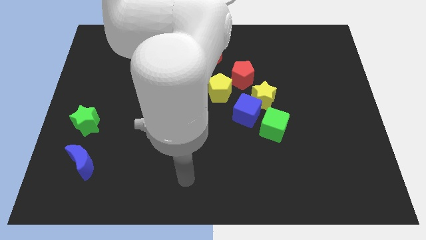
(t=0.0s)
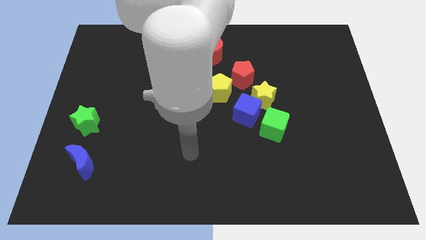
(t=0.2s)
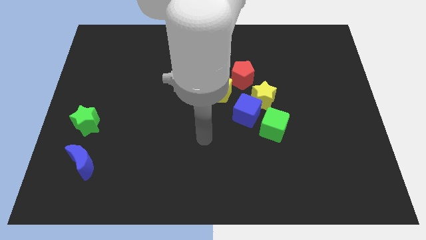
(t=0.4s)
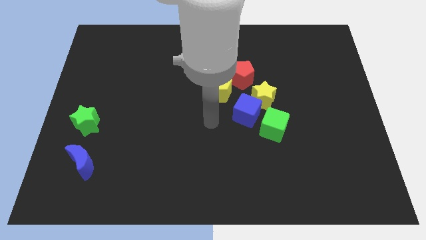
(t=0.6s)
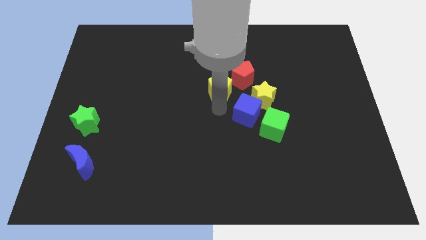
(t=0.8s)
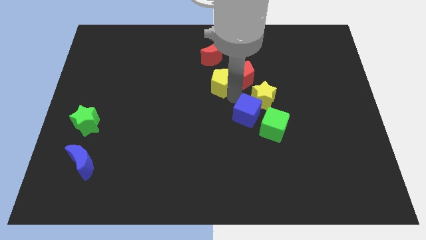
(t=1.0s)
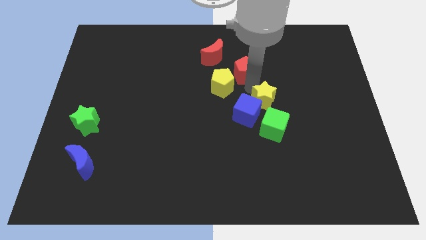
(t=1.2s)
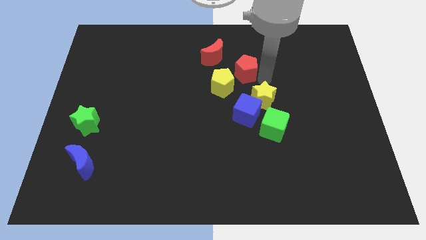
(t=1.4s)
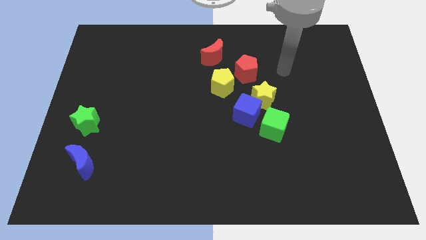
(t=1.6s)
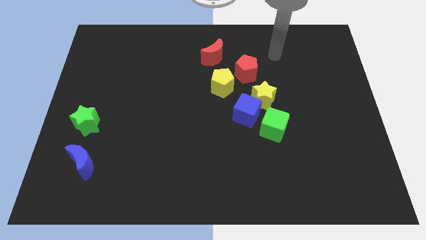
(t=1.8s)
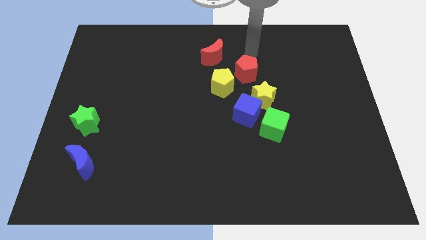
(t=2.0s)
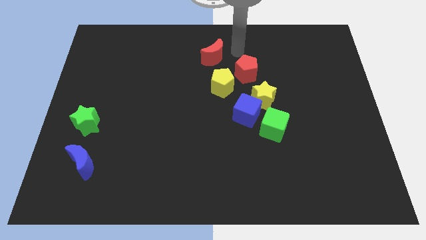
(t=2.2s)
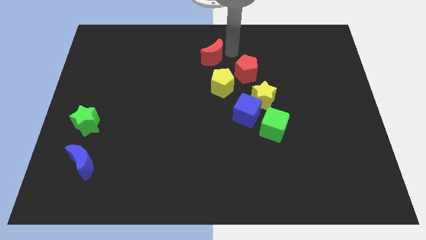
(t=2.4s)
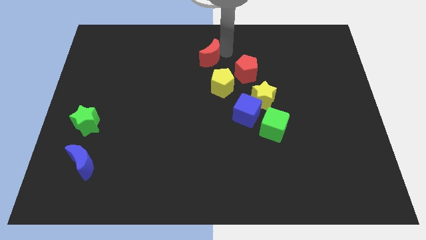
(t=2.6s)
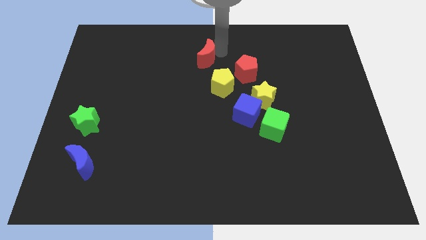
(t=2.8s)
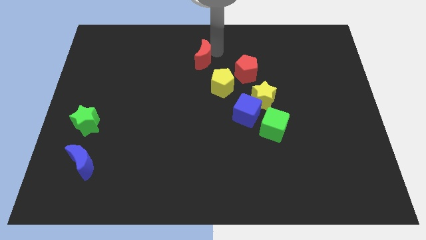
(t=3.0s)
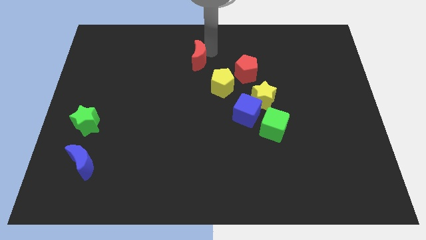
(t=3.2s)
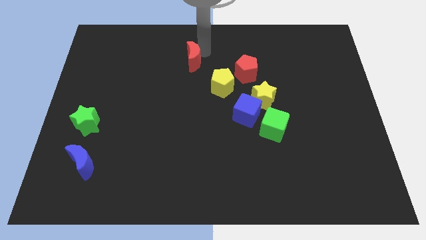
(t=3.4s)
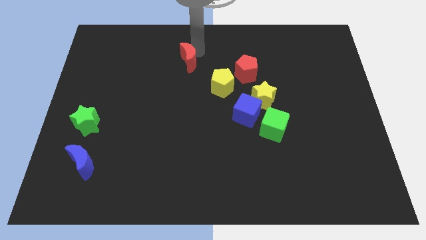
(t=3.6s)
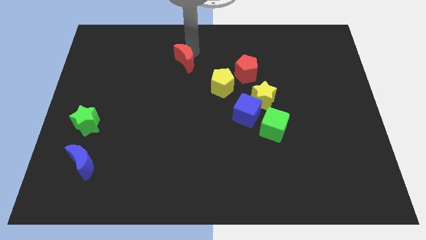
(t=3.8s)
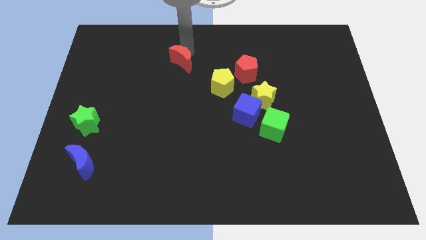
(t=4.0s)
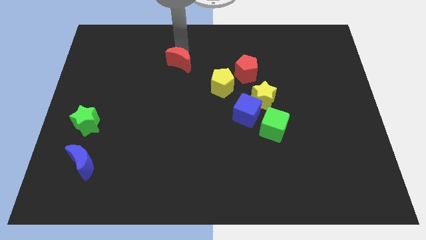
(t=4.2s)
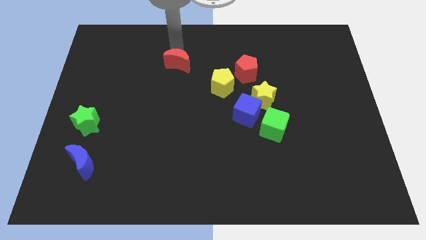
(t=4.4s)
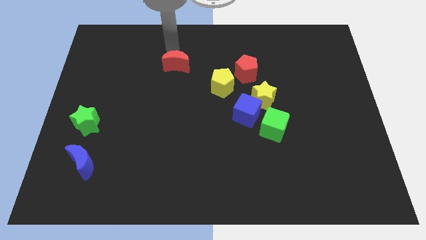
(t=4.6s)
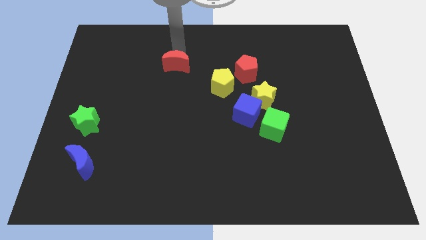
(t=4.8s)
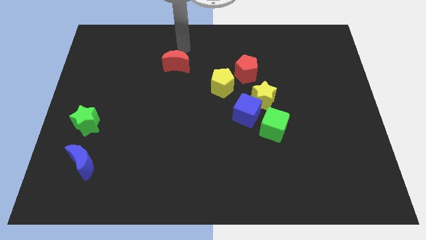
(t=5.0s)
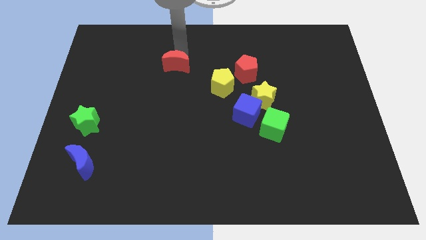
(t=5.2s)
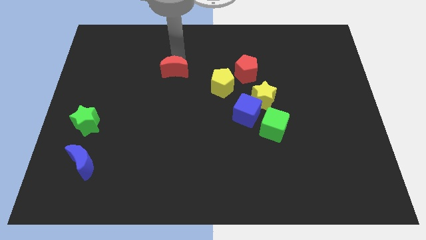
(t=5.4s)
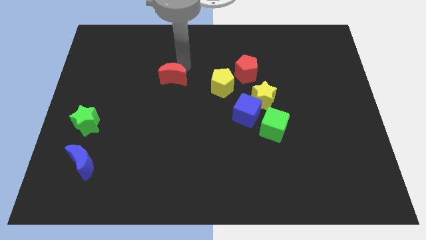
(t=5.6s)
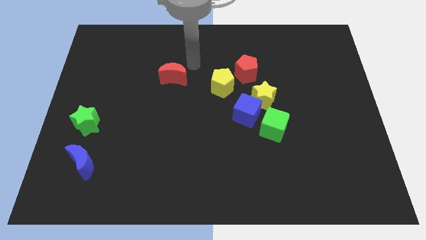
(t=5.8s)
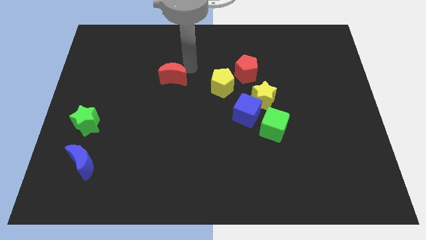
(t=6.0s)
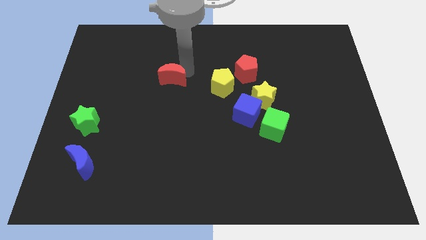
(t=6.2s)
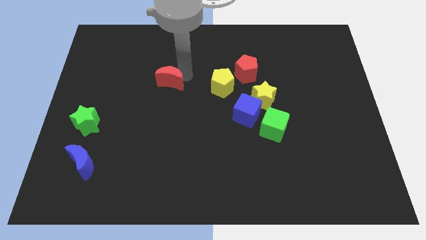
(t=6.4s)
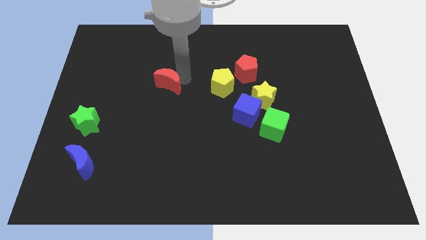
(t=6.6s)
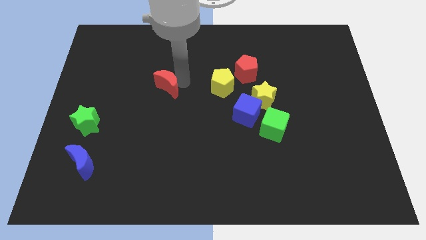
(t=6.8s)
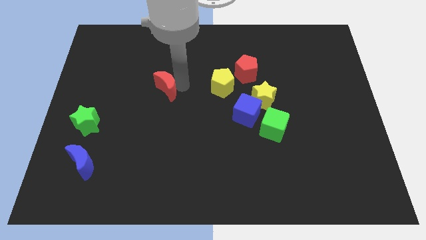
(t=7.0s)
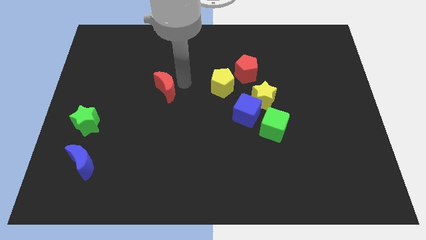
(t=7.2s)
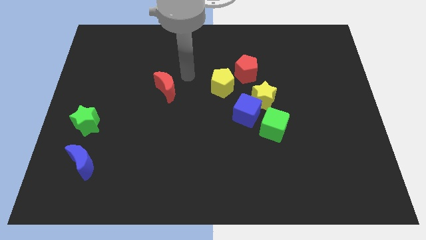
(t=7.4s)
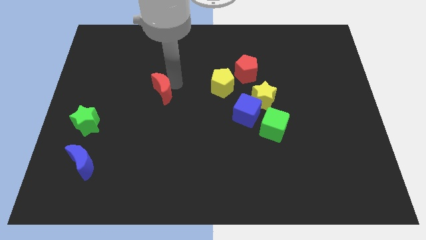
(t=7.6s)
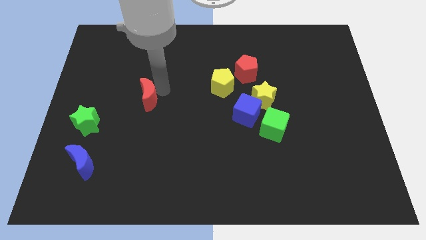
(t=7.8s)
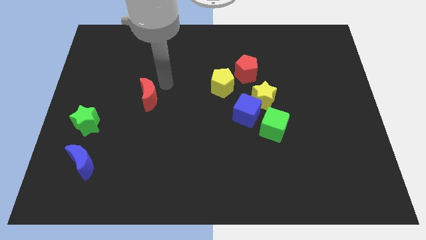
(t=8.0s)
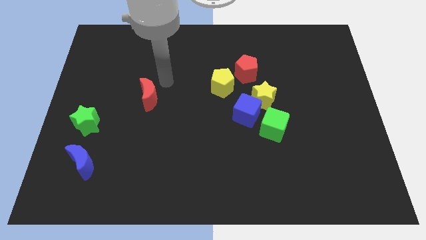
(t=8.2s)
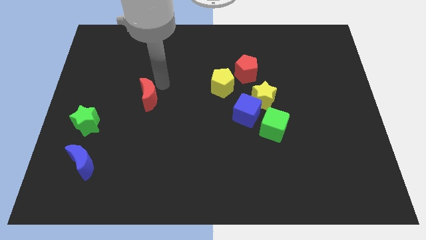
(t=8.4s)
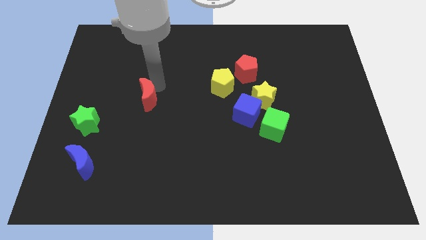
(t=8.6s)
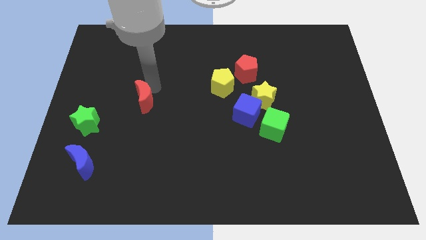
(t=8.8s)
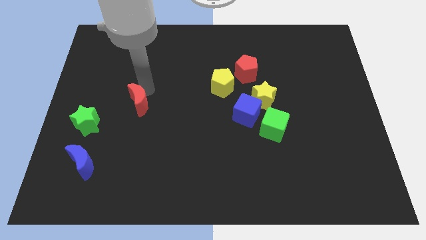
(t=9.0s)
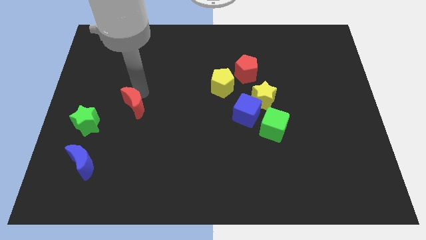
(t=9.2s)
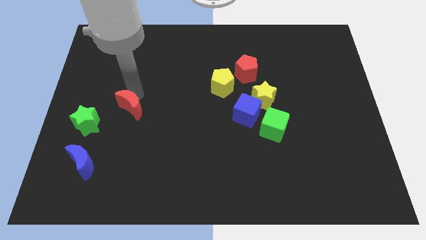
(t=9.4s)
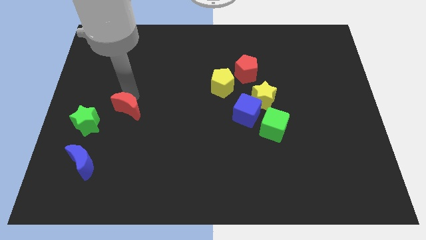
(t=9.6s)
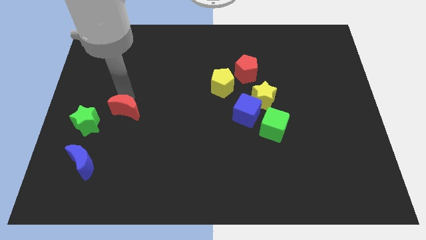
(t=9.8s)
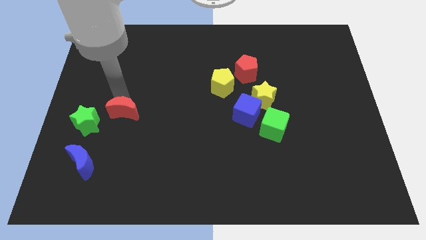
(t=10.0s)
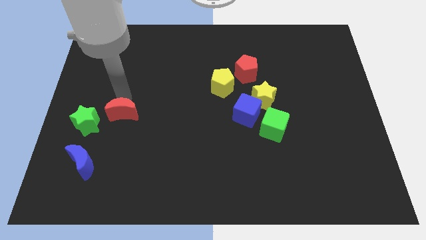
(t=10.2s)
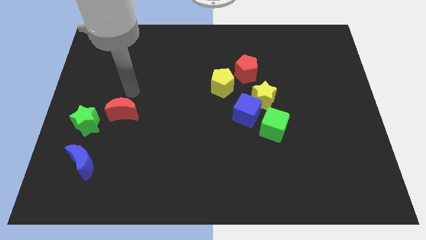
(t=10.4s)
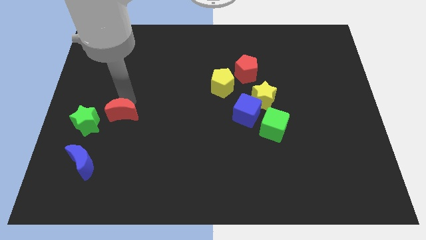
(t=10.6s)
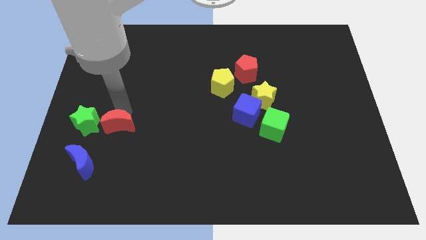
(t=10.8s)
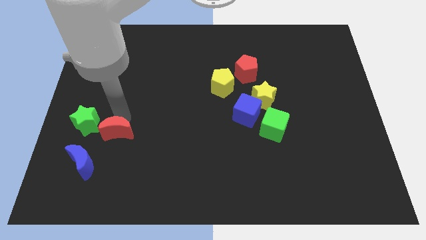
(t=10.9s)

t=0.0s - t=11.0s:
push the red moon to the bottom right of the green star
